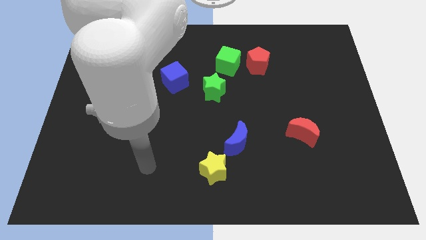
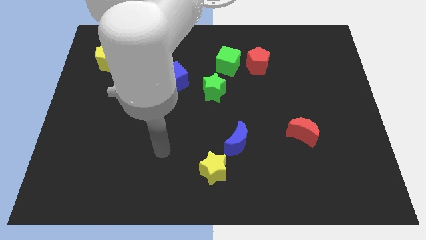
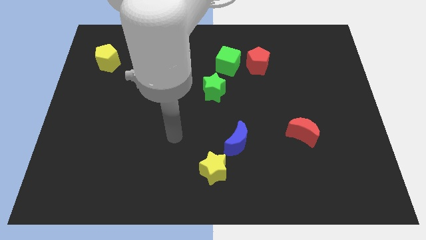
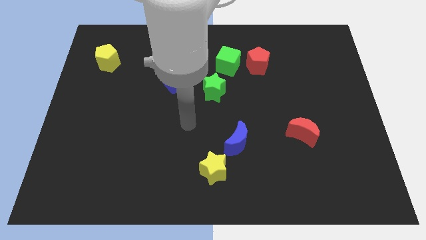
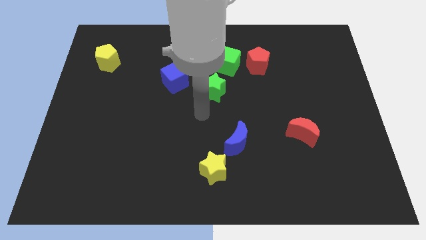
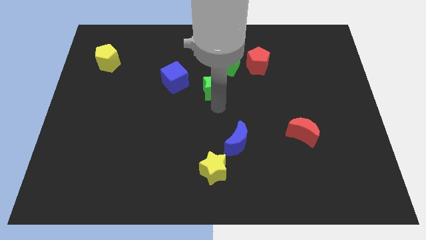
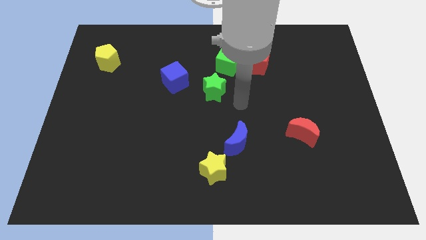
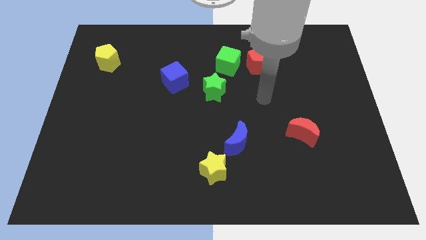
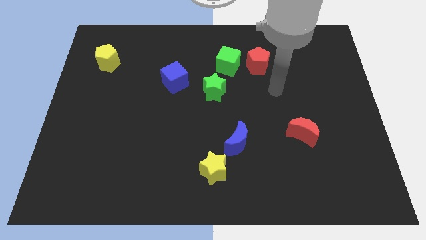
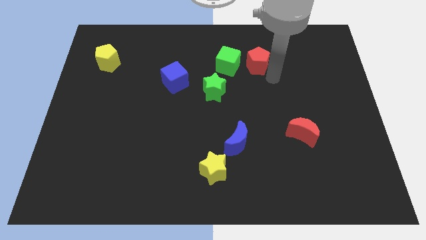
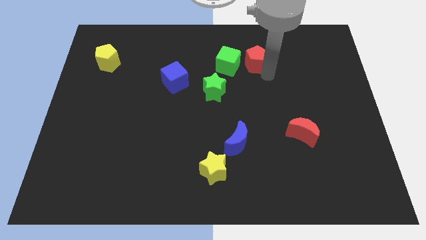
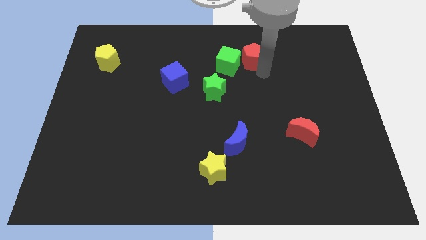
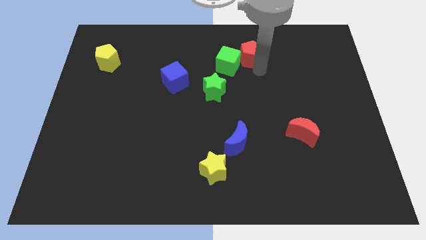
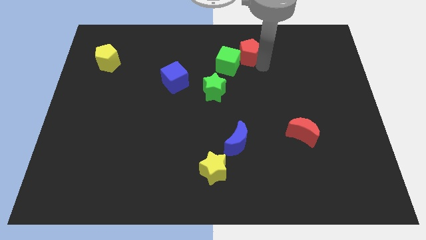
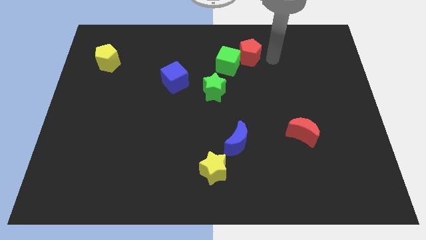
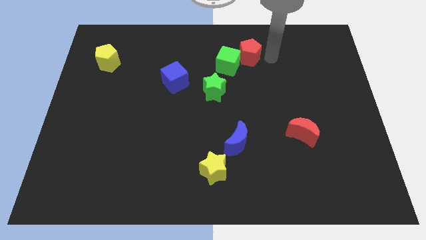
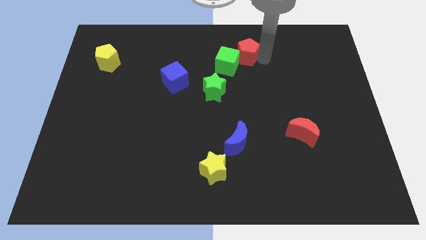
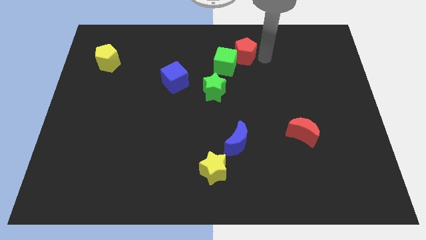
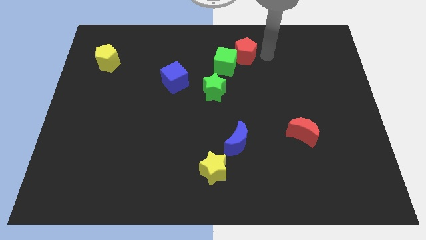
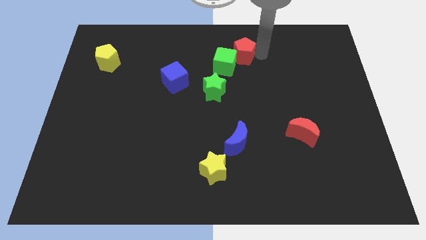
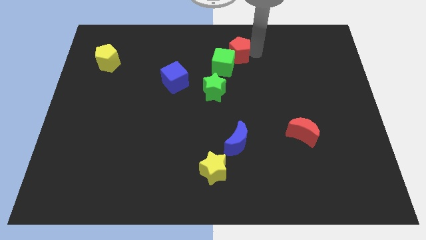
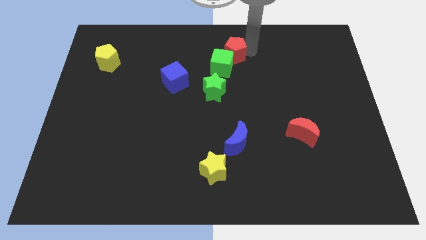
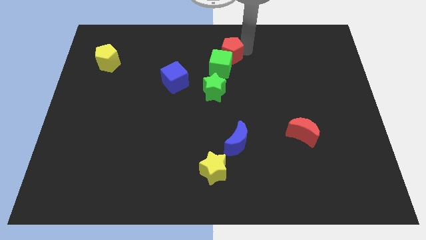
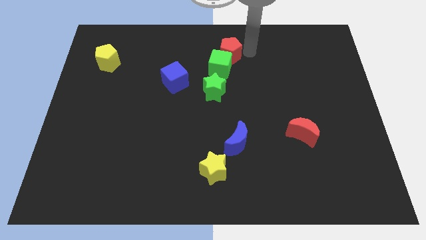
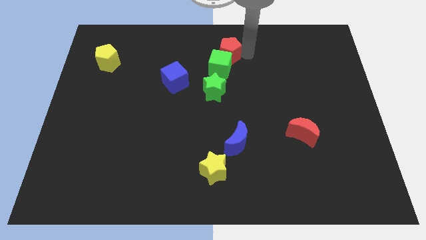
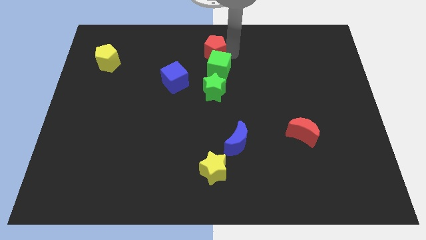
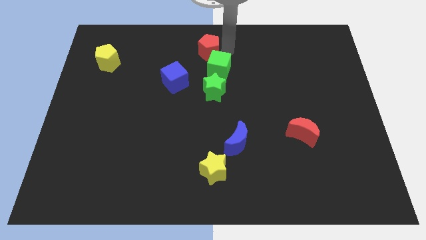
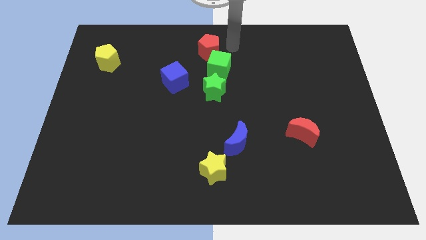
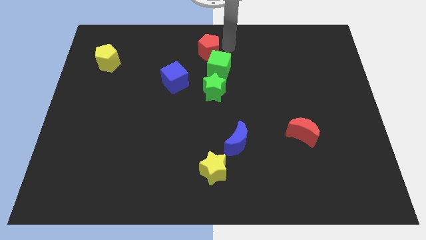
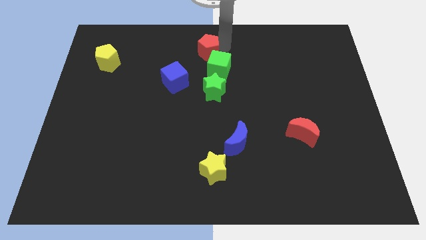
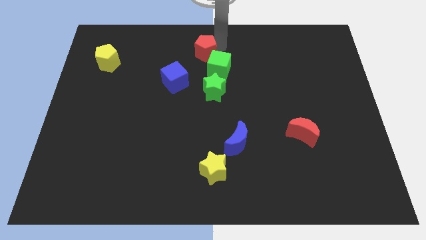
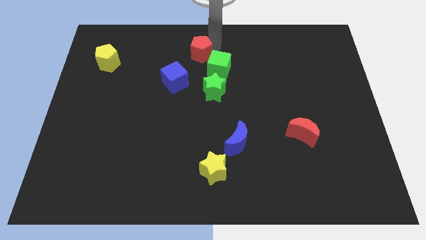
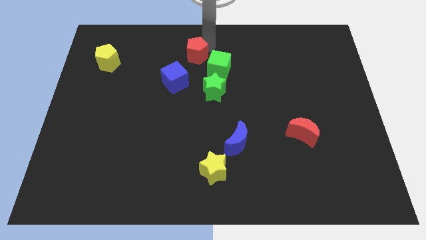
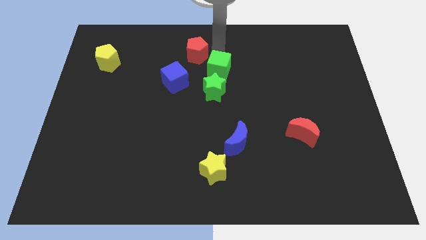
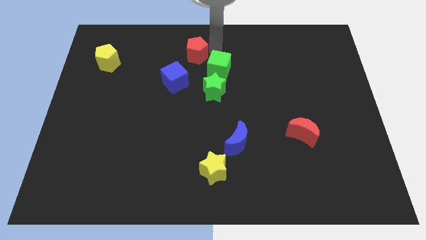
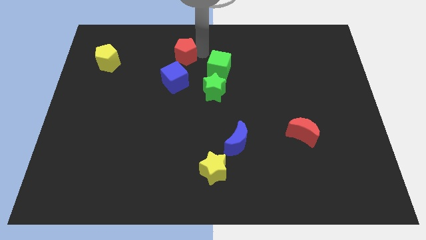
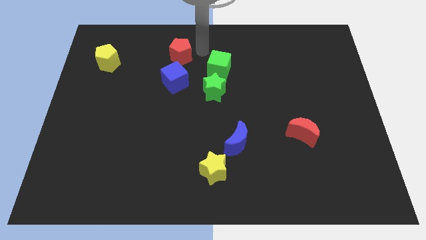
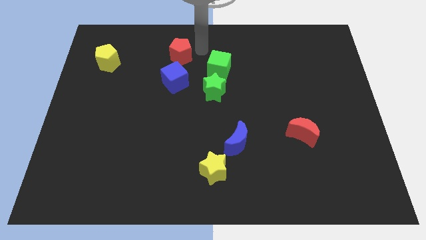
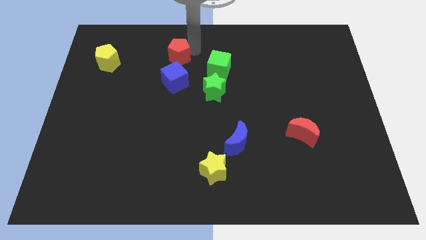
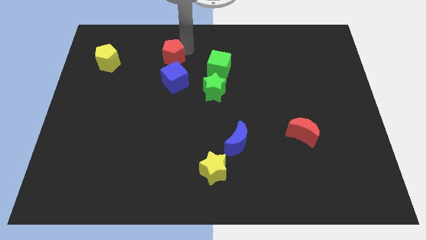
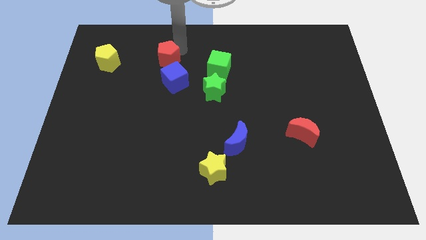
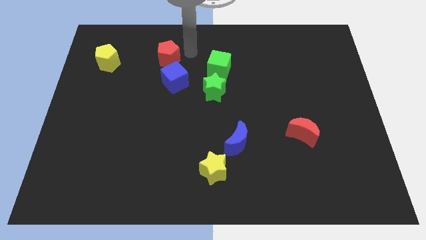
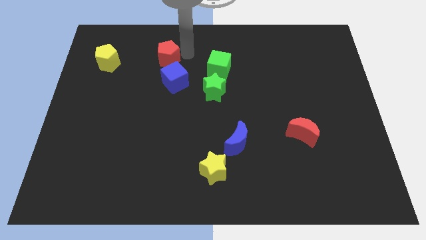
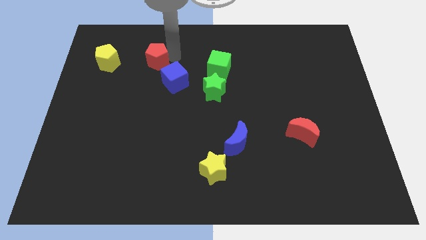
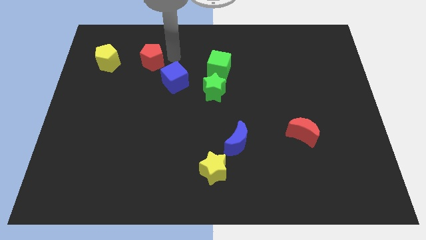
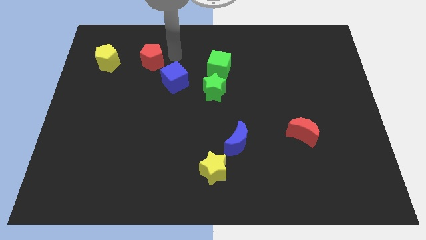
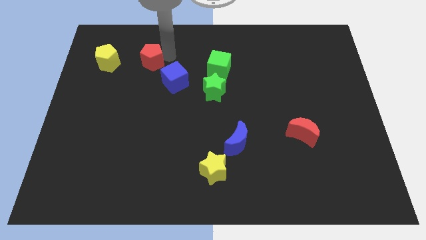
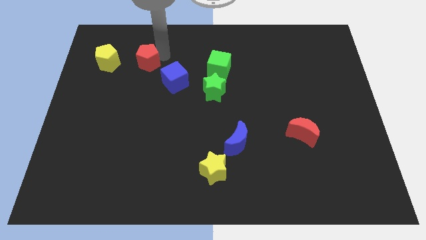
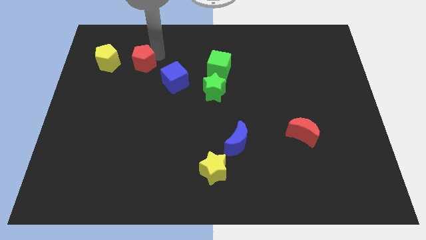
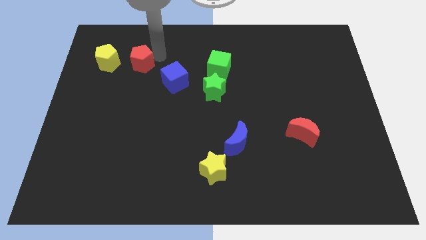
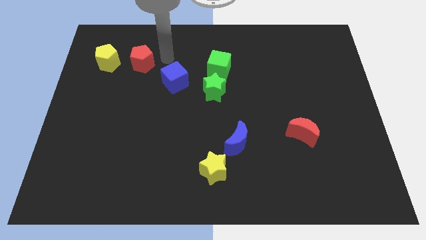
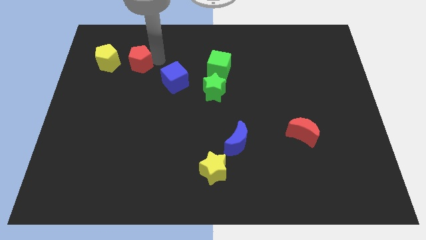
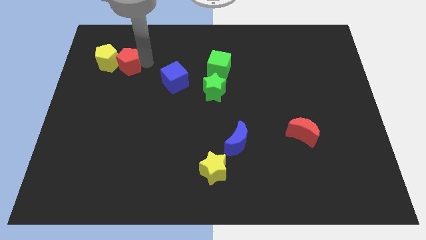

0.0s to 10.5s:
push the red pentagon close to the yellow pentagon

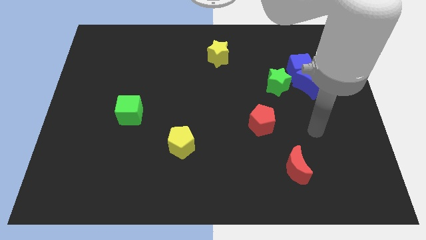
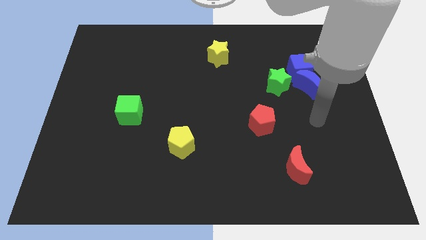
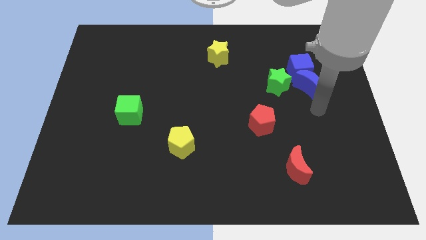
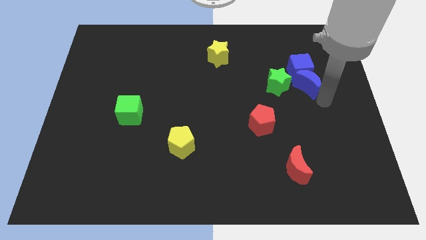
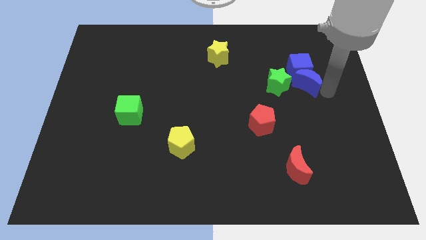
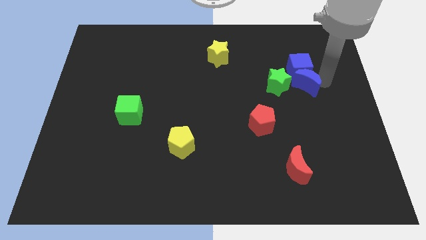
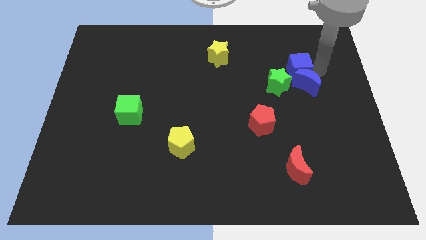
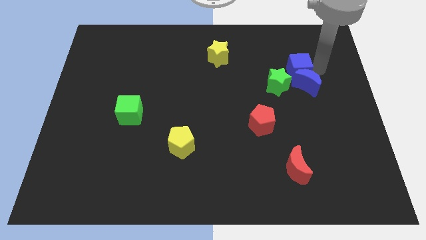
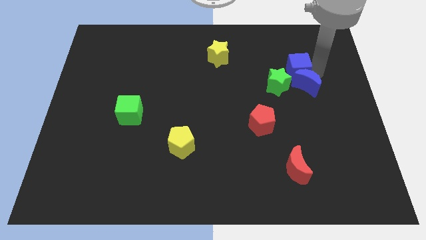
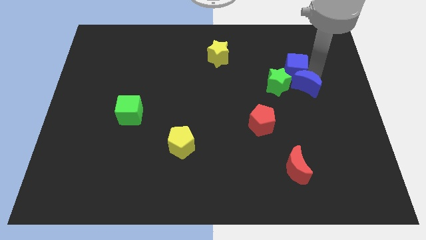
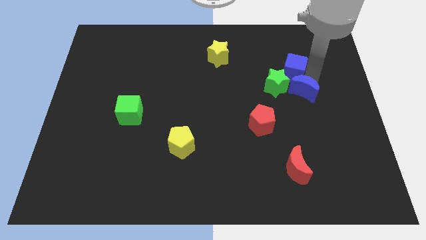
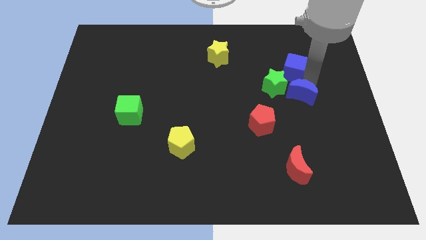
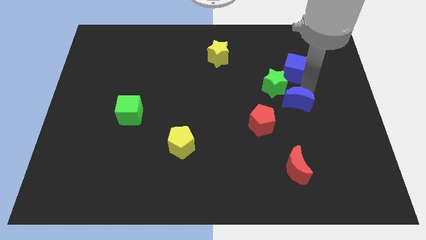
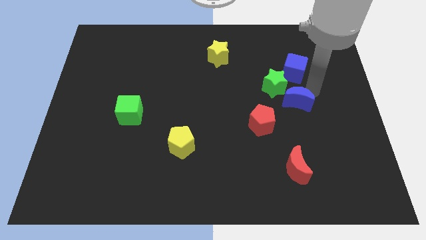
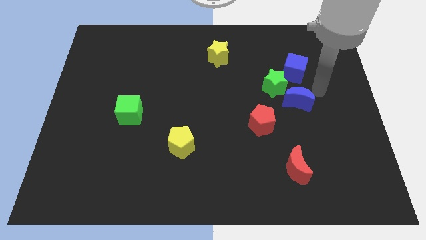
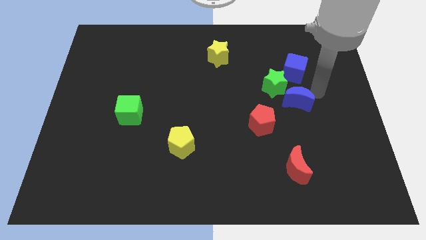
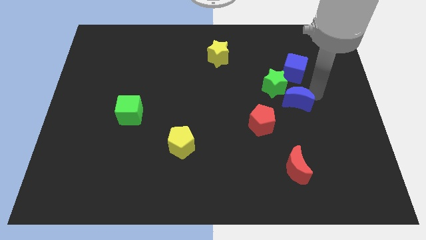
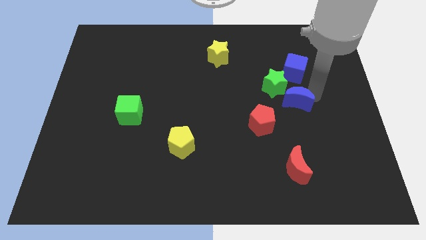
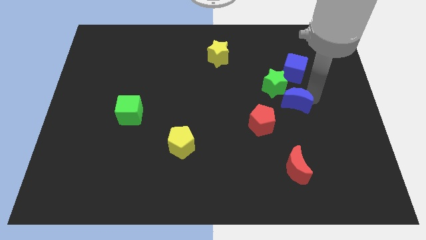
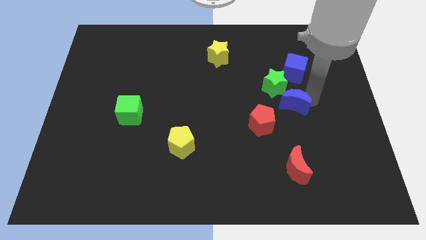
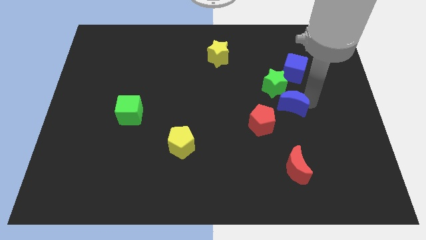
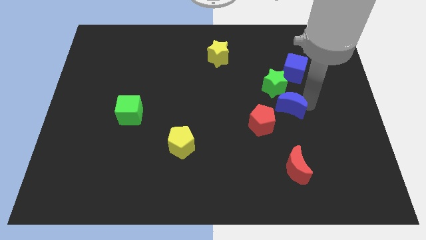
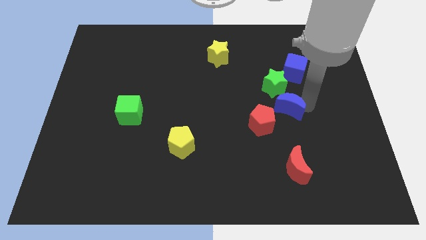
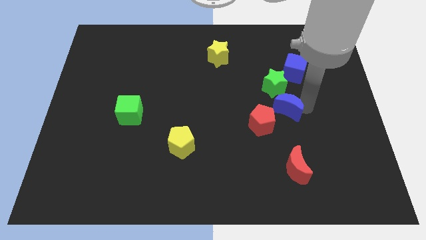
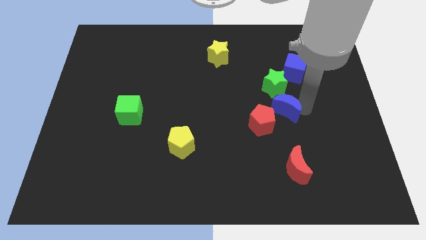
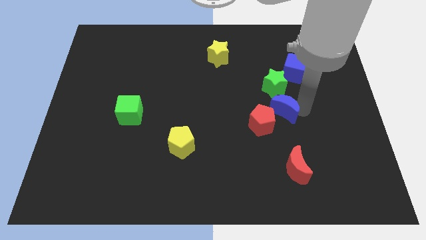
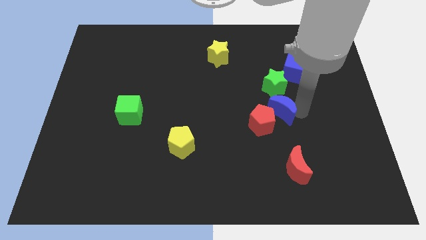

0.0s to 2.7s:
push the blue moon towards the red pentagon

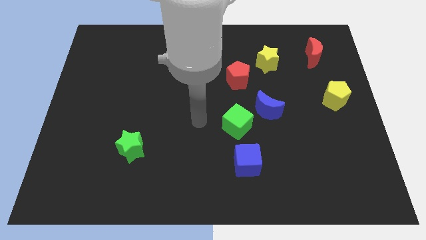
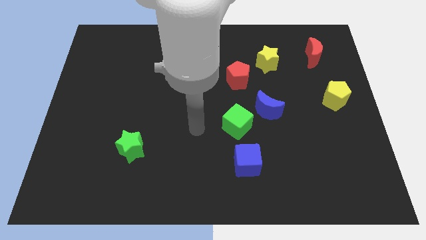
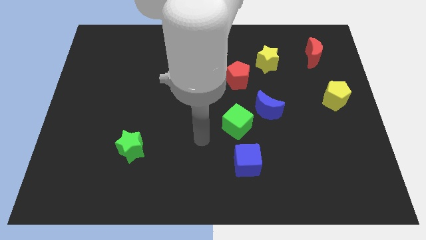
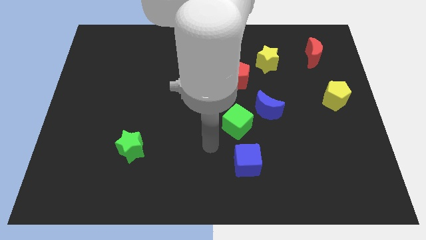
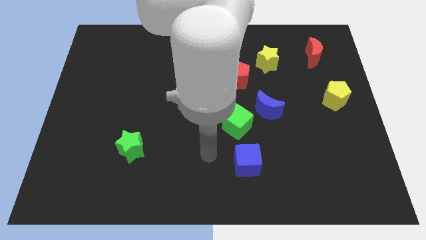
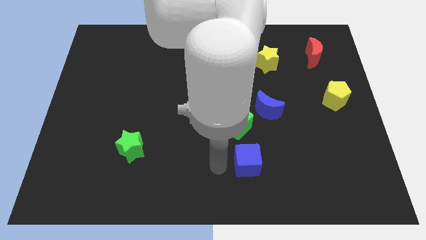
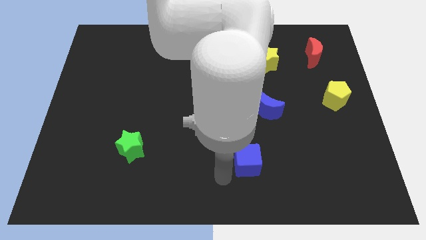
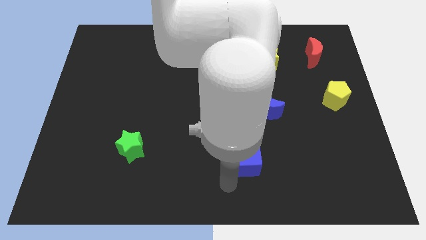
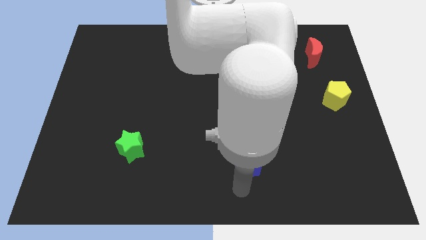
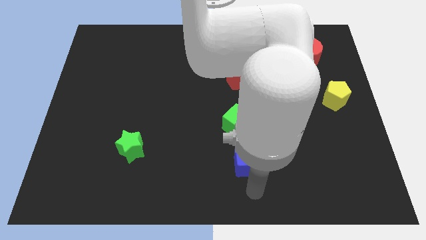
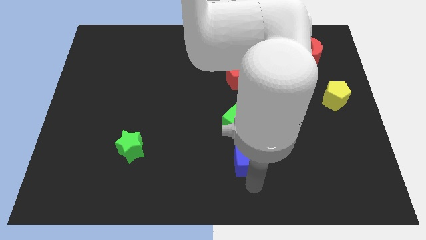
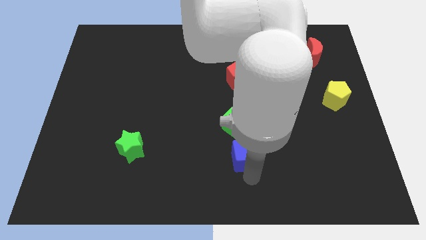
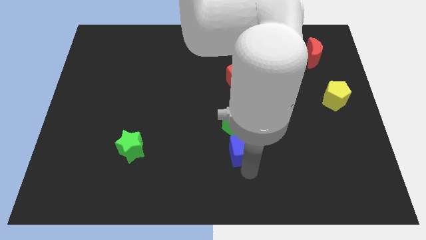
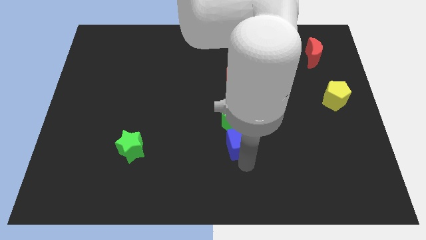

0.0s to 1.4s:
move the blue cube next to the green cube
